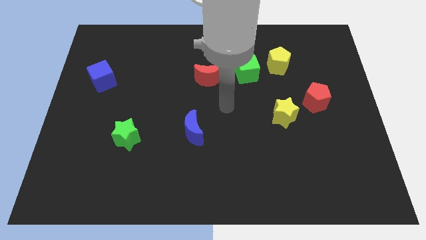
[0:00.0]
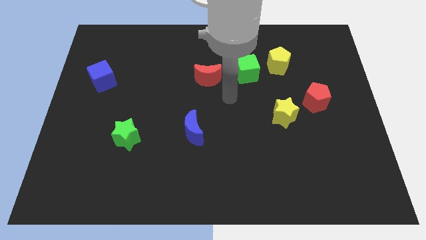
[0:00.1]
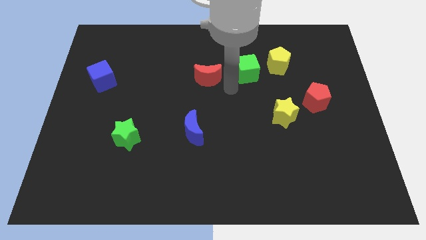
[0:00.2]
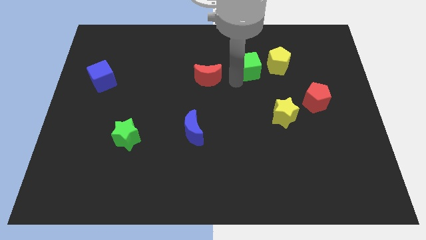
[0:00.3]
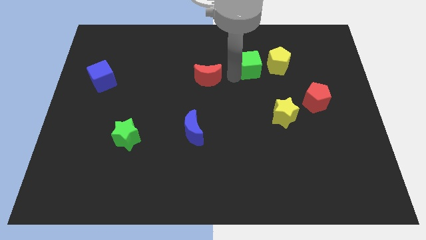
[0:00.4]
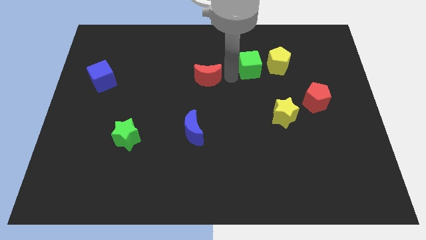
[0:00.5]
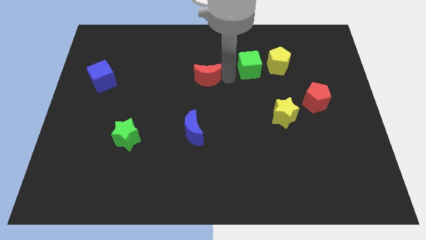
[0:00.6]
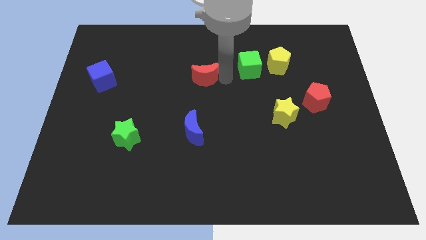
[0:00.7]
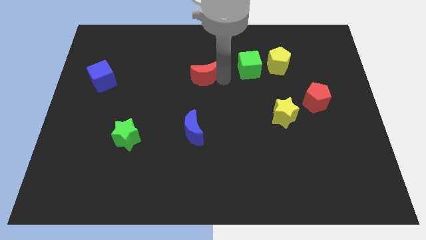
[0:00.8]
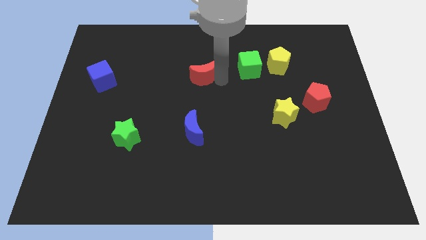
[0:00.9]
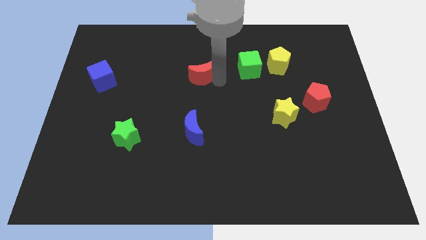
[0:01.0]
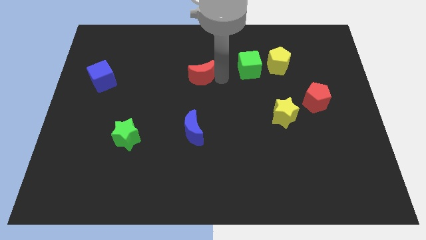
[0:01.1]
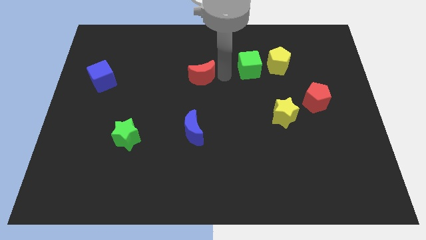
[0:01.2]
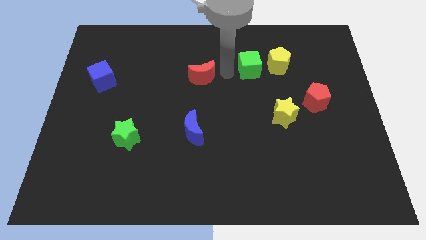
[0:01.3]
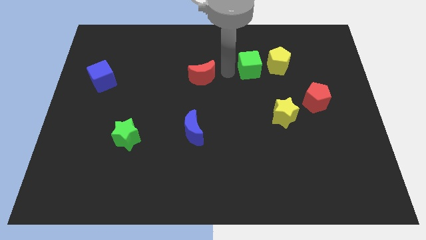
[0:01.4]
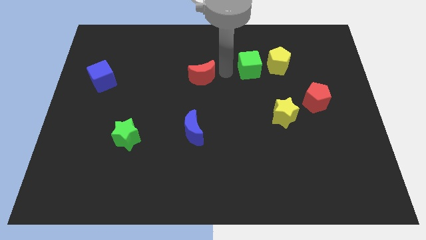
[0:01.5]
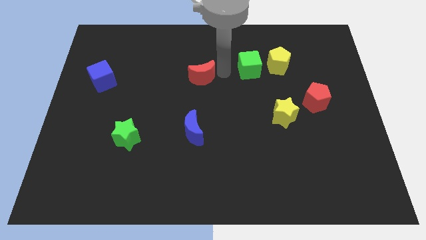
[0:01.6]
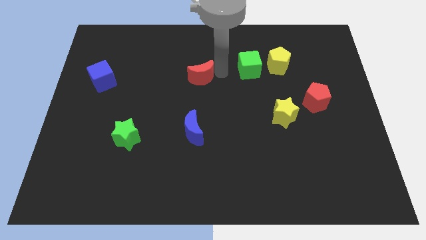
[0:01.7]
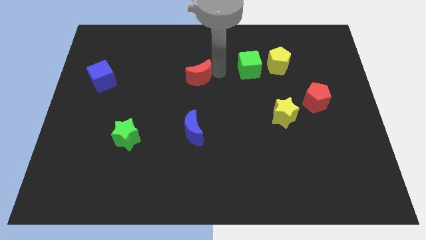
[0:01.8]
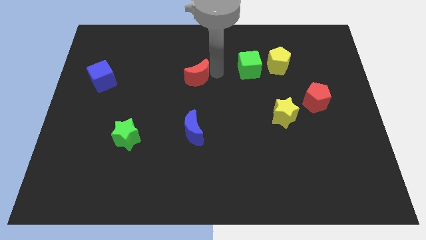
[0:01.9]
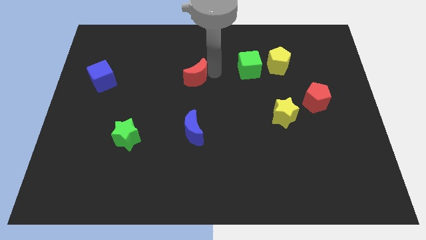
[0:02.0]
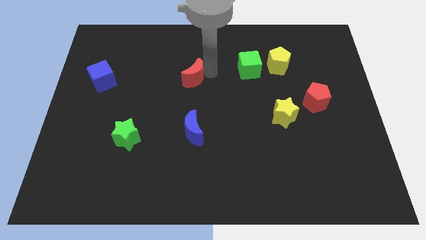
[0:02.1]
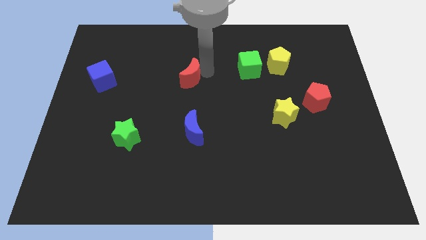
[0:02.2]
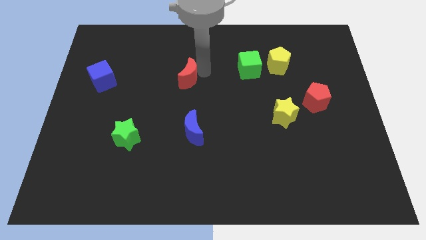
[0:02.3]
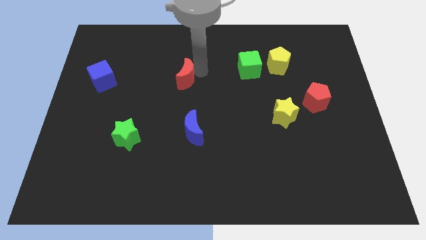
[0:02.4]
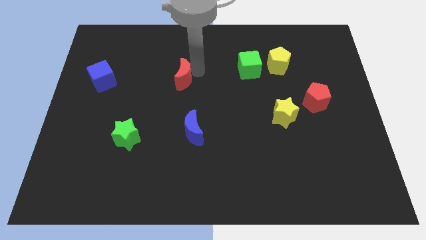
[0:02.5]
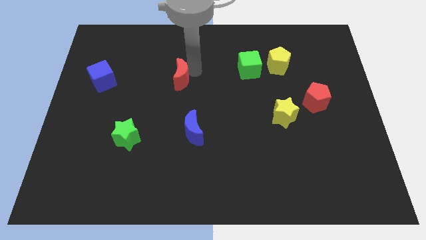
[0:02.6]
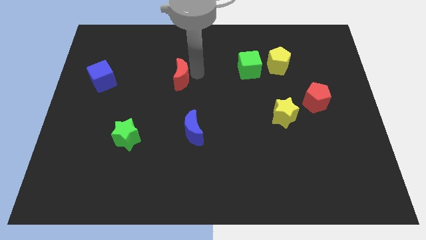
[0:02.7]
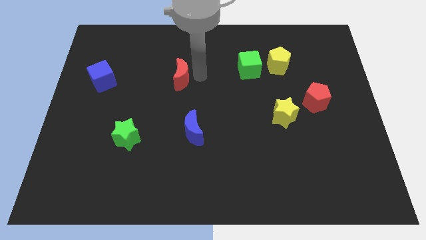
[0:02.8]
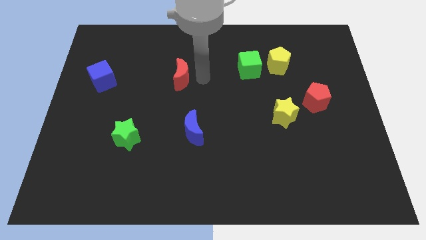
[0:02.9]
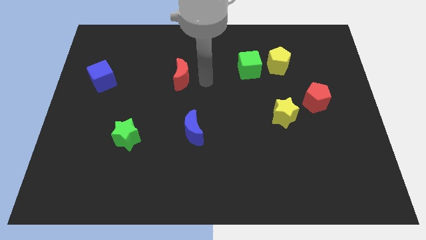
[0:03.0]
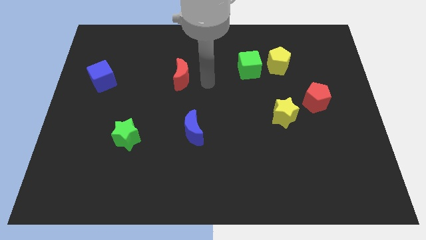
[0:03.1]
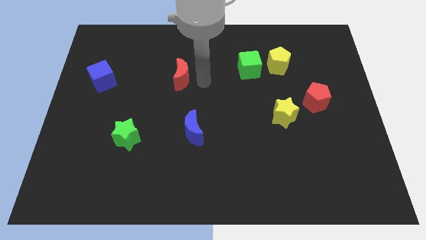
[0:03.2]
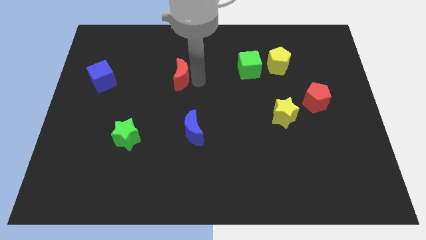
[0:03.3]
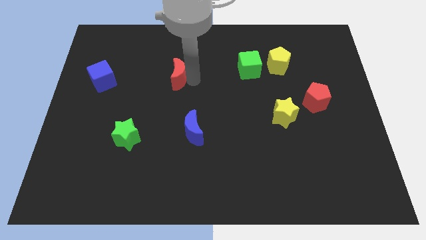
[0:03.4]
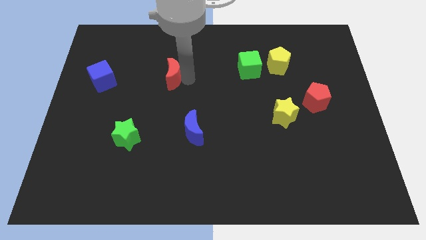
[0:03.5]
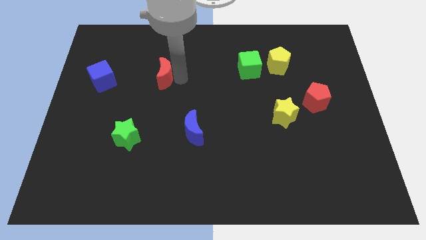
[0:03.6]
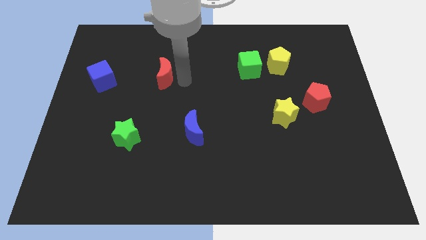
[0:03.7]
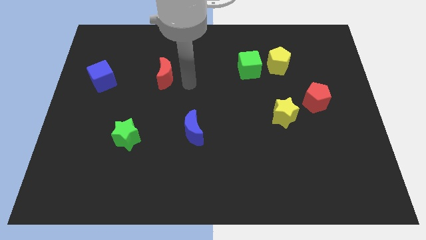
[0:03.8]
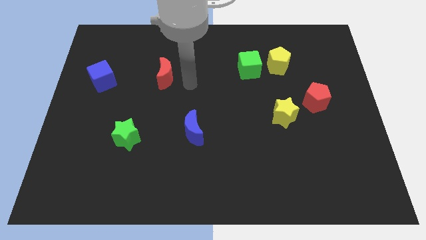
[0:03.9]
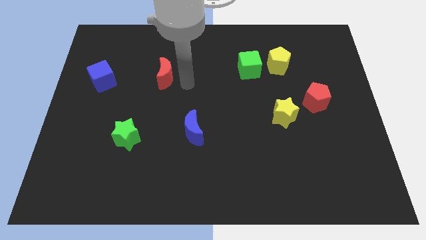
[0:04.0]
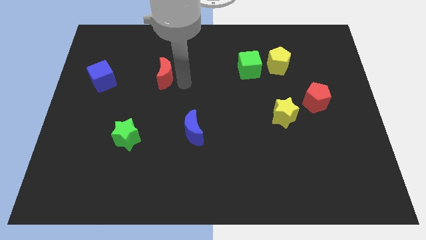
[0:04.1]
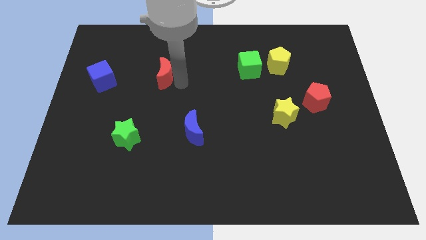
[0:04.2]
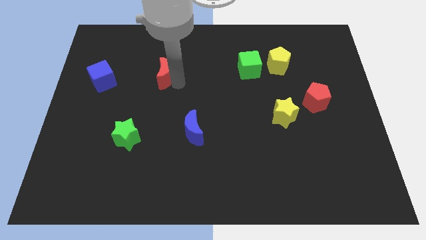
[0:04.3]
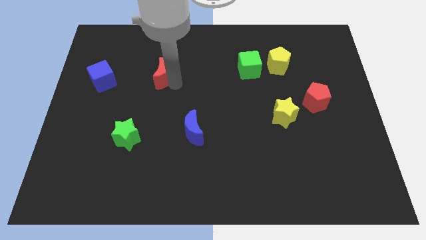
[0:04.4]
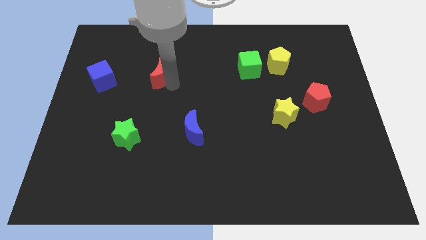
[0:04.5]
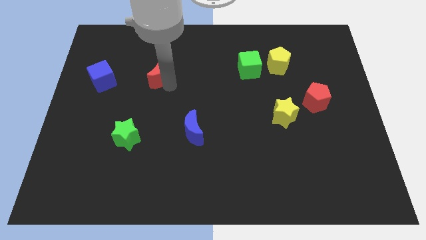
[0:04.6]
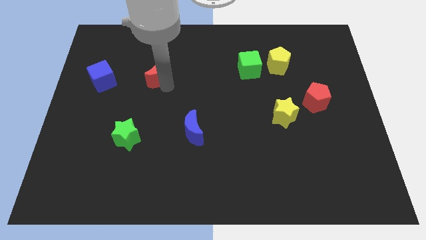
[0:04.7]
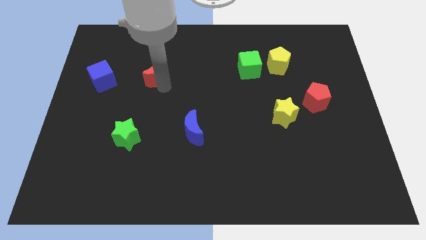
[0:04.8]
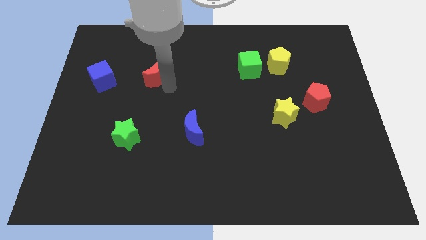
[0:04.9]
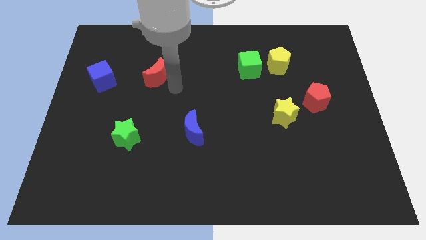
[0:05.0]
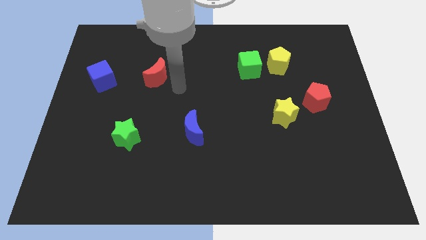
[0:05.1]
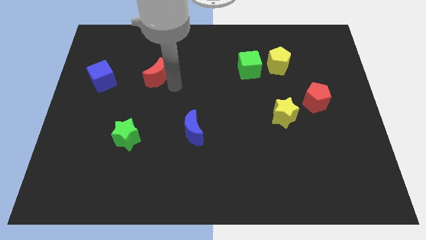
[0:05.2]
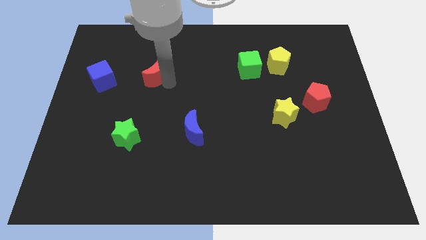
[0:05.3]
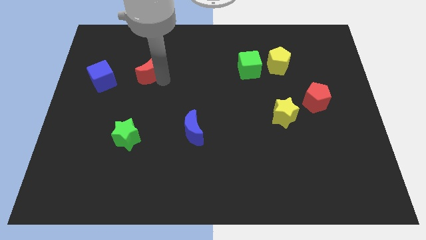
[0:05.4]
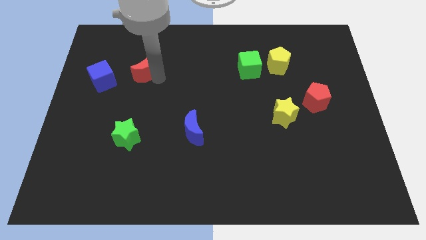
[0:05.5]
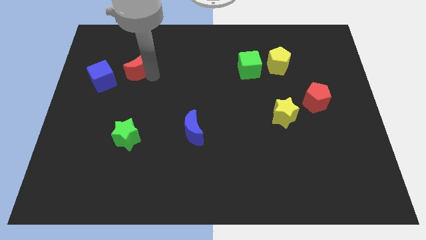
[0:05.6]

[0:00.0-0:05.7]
move the red moon to the top right of the blue cube

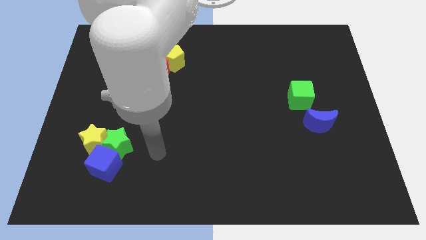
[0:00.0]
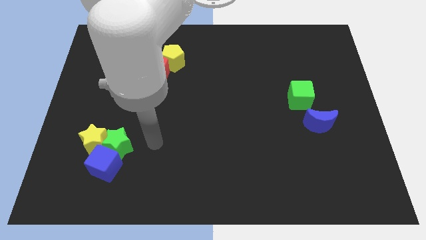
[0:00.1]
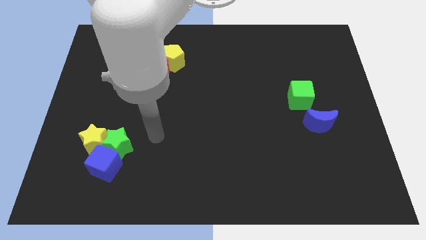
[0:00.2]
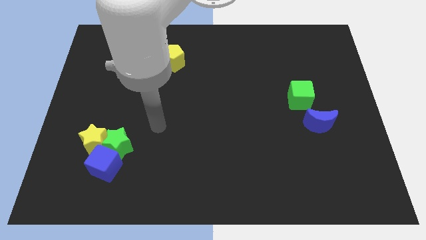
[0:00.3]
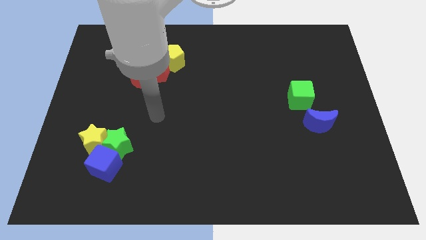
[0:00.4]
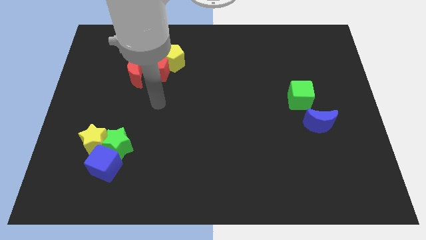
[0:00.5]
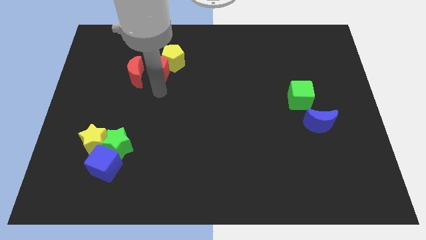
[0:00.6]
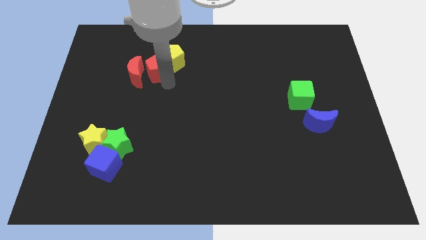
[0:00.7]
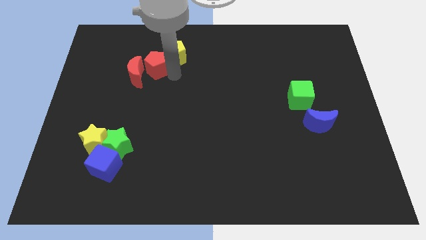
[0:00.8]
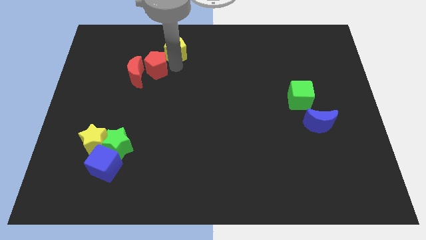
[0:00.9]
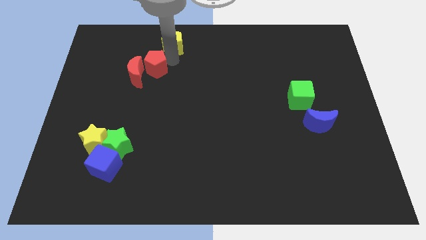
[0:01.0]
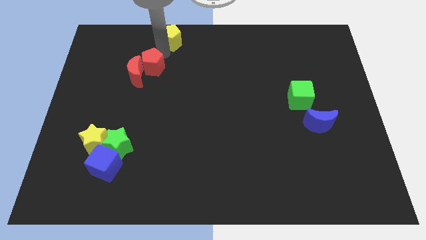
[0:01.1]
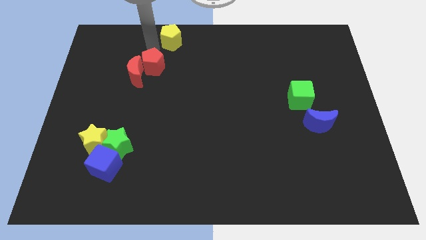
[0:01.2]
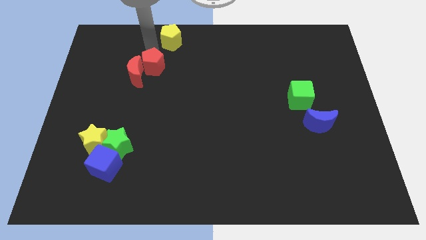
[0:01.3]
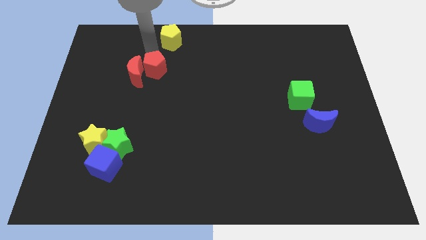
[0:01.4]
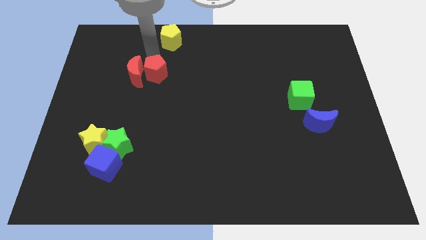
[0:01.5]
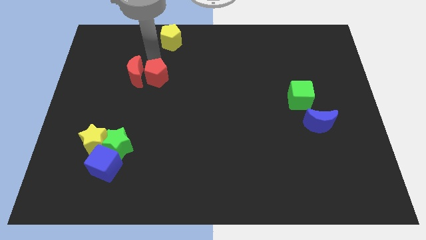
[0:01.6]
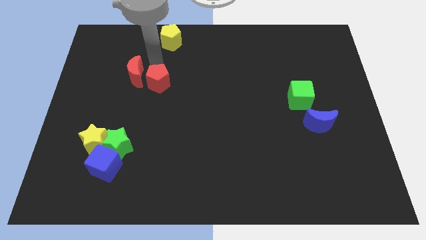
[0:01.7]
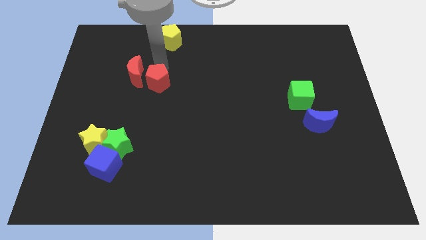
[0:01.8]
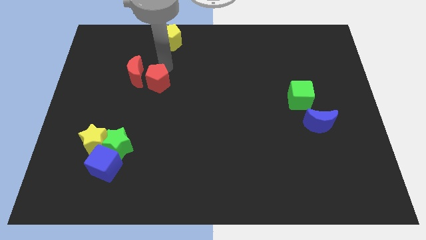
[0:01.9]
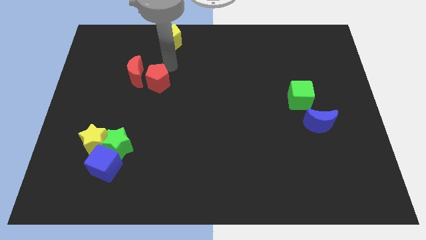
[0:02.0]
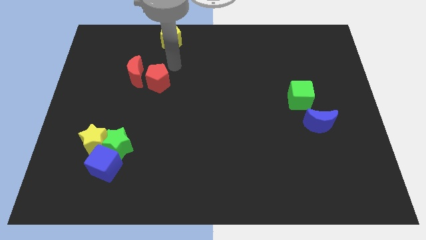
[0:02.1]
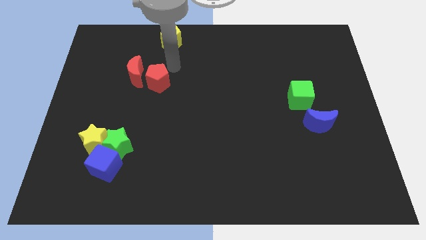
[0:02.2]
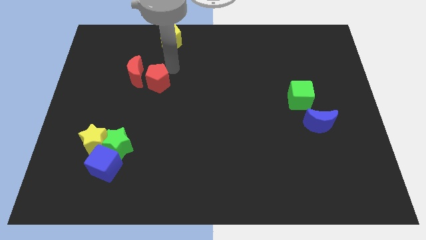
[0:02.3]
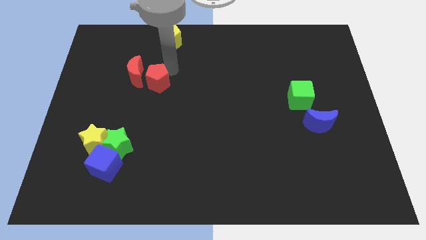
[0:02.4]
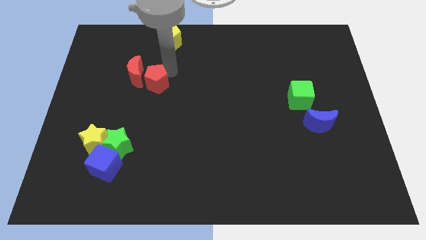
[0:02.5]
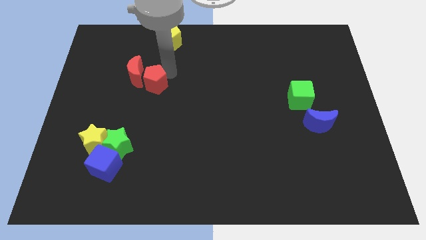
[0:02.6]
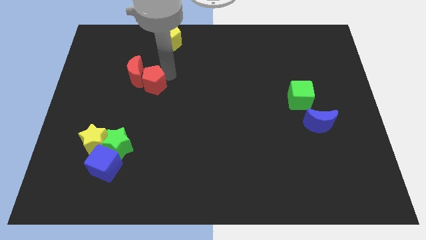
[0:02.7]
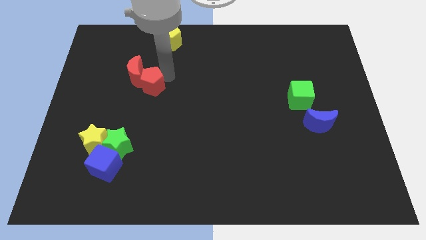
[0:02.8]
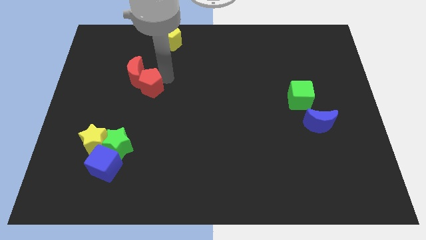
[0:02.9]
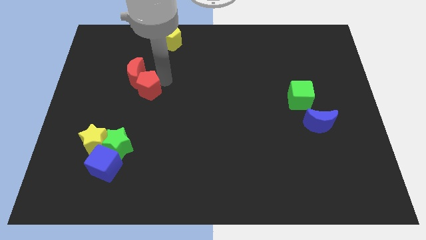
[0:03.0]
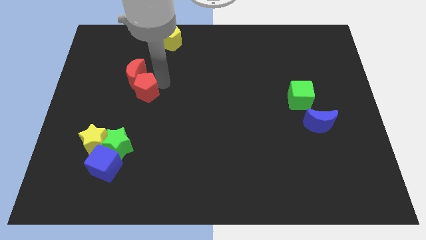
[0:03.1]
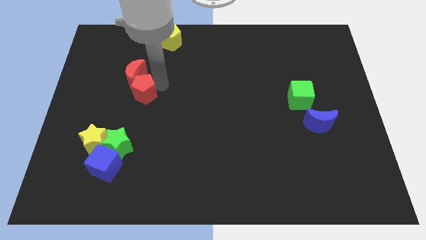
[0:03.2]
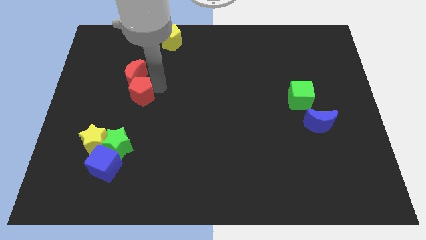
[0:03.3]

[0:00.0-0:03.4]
put the red pentagon above the green star
